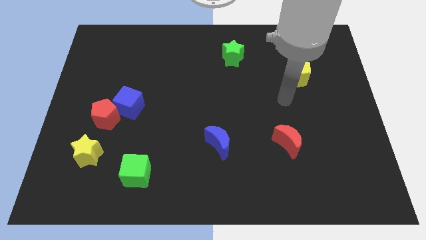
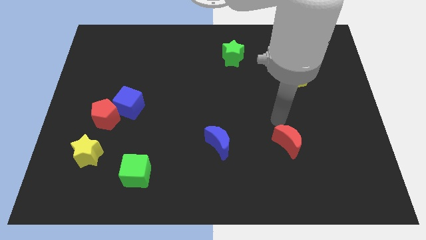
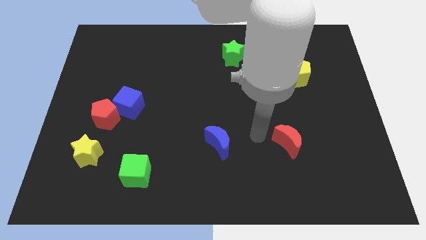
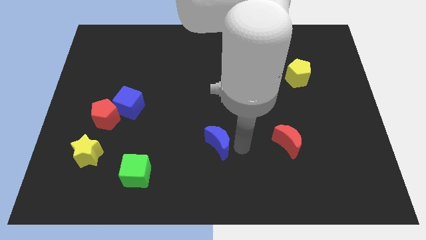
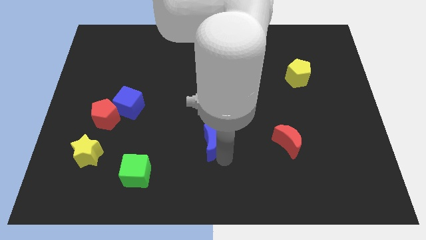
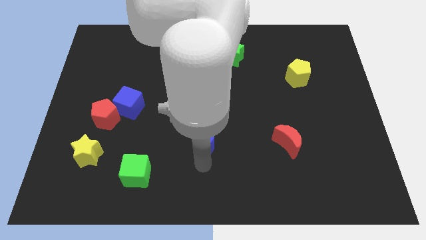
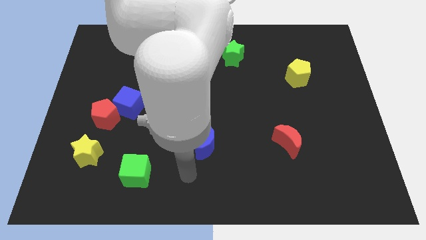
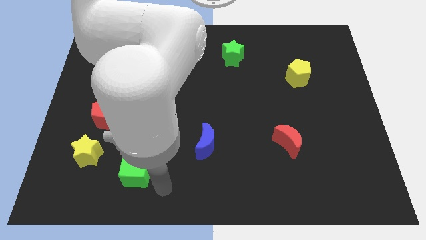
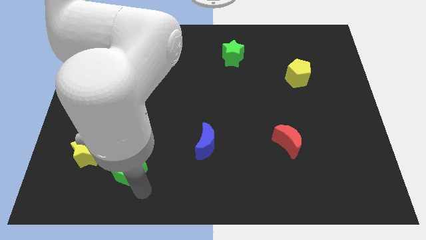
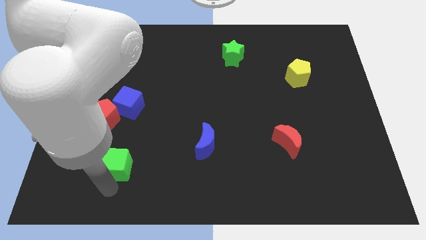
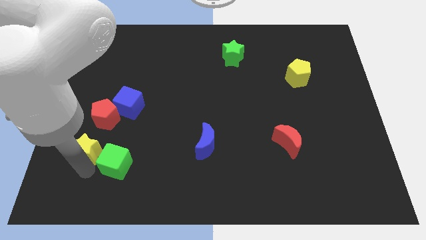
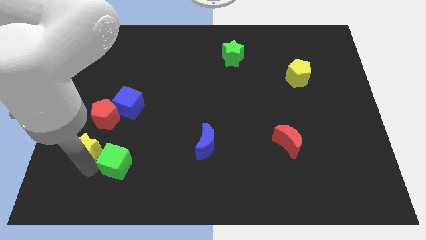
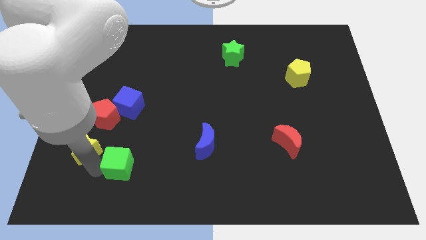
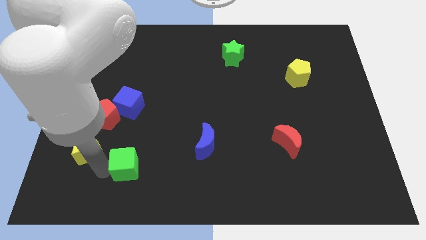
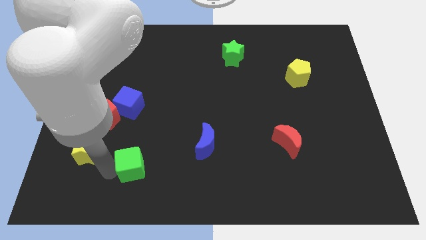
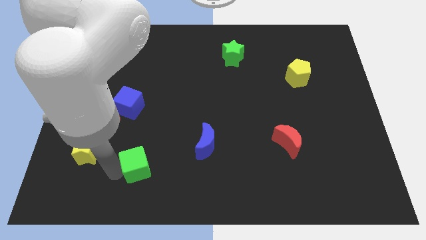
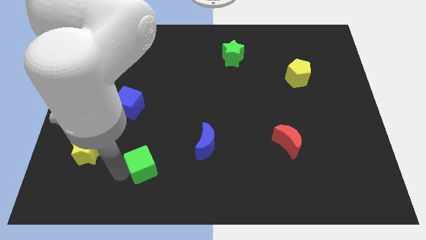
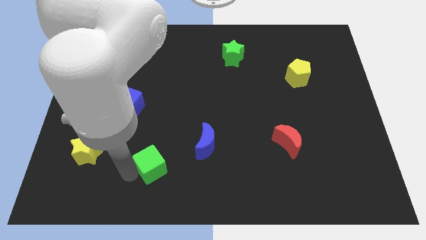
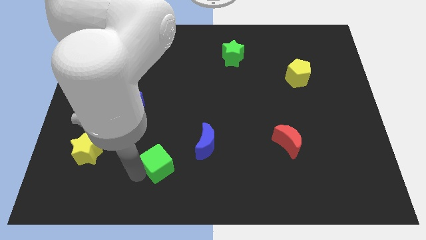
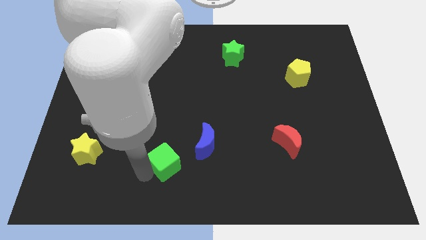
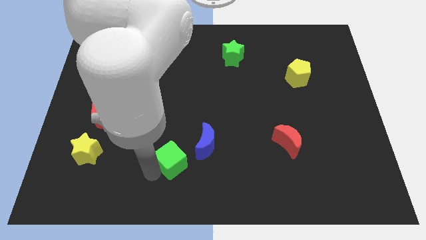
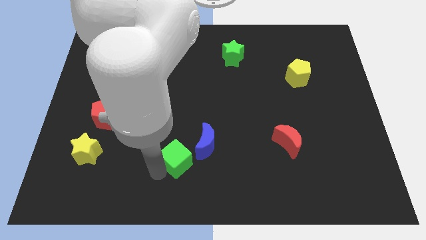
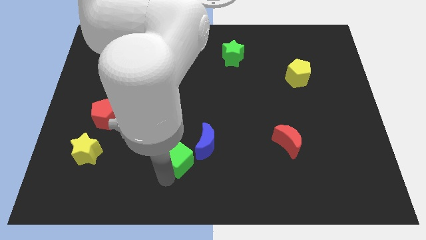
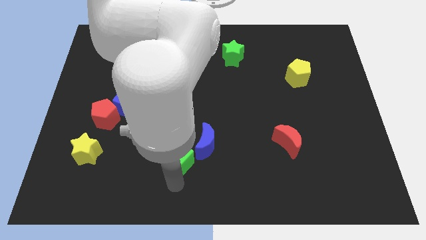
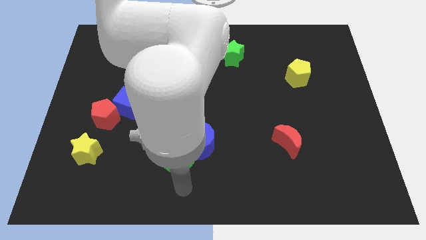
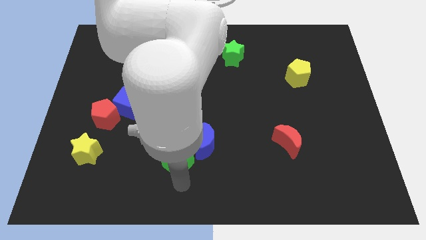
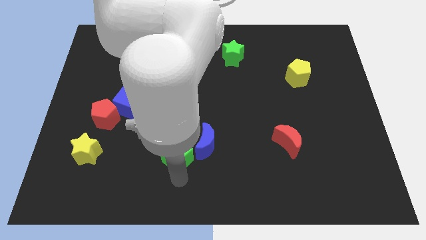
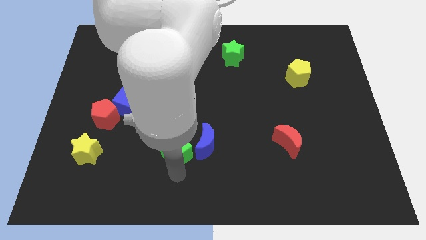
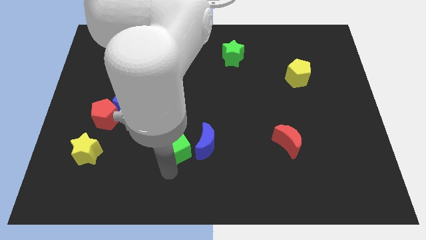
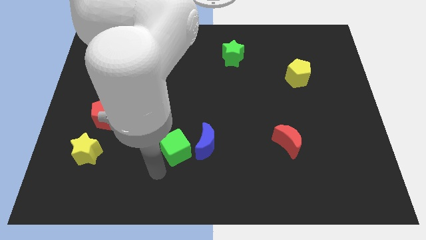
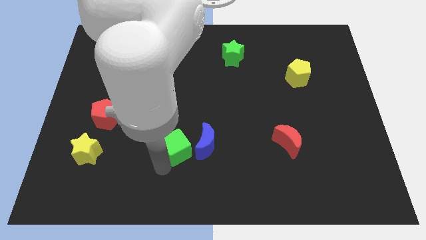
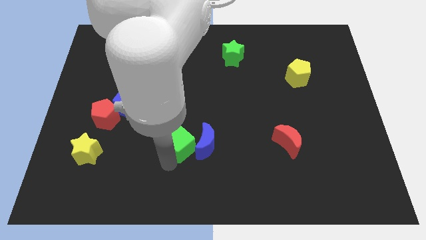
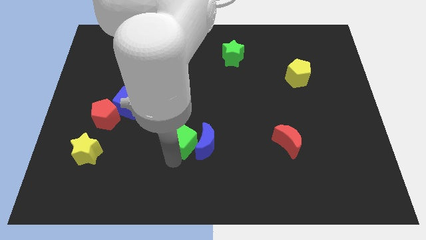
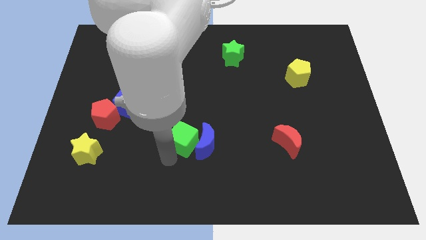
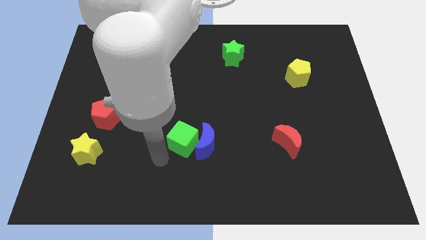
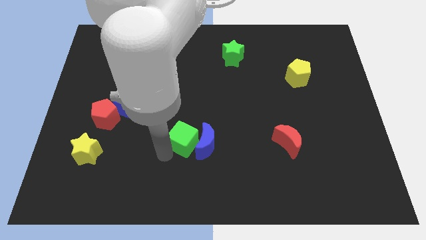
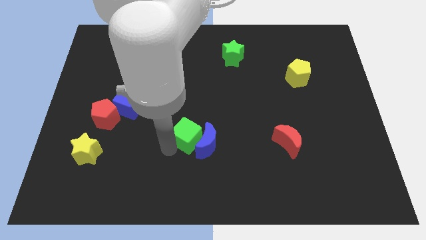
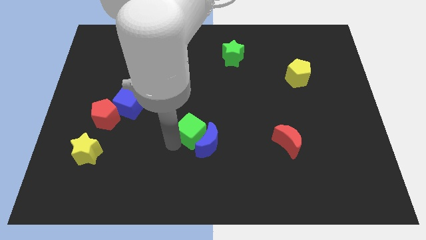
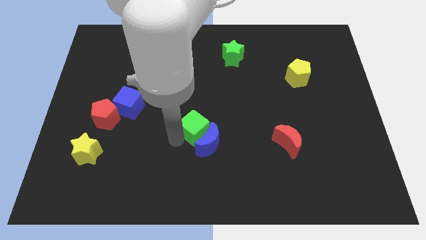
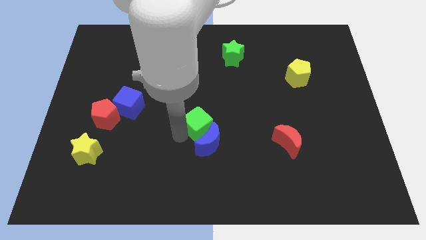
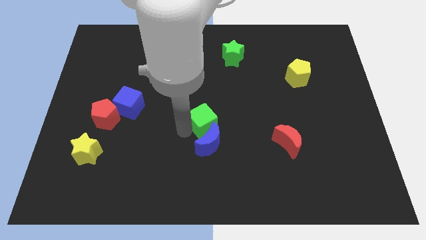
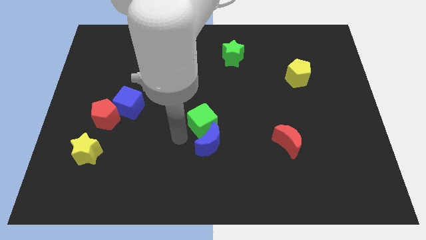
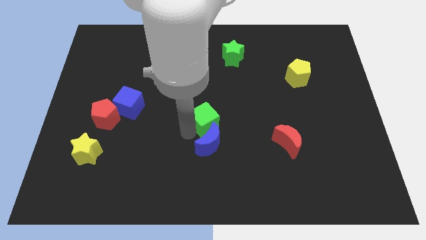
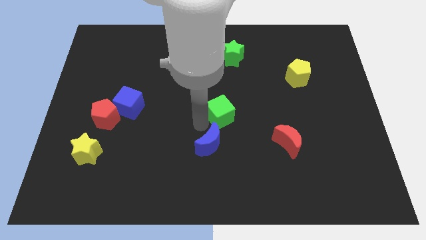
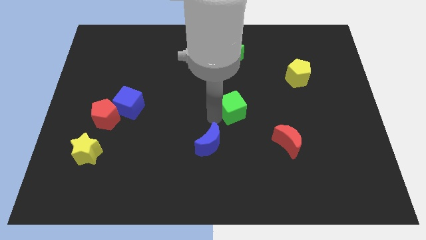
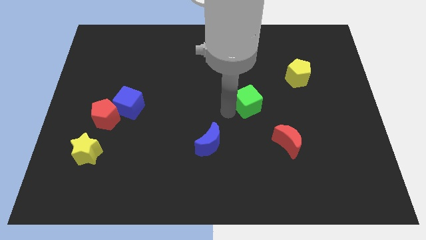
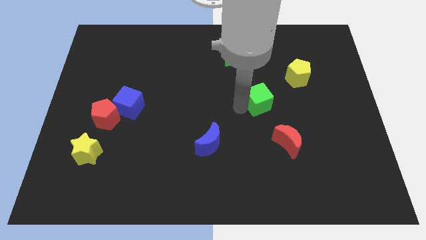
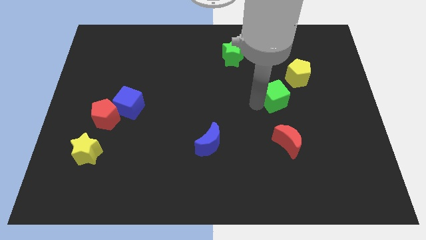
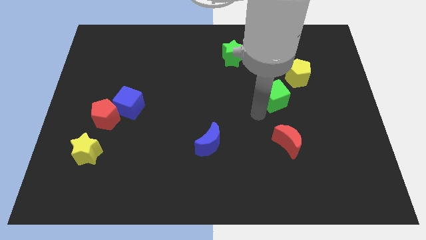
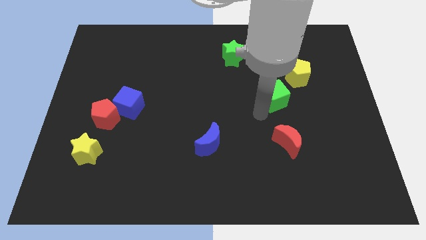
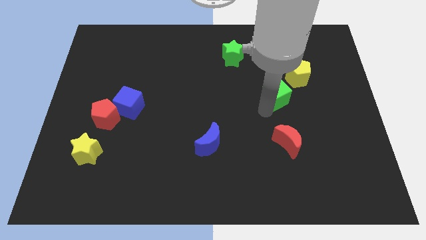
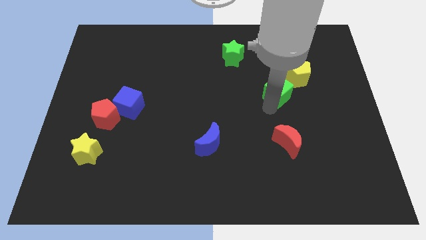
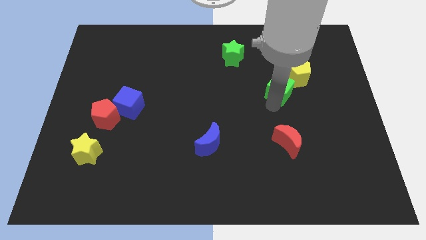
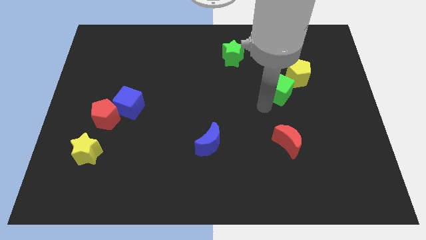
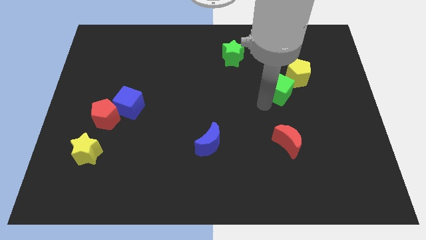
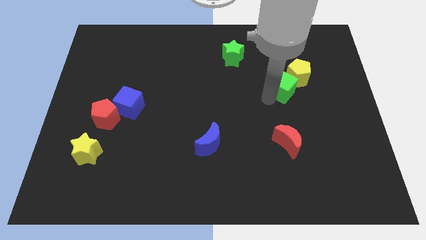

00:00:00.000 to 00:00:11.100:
move the green cube towards the yellow pentagon
